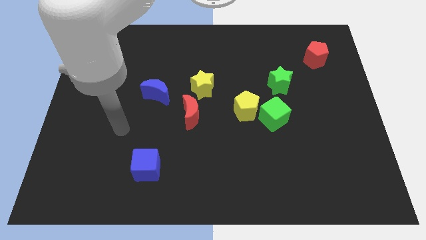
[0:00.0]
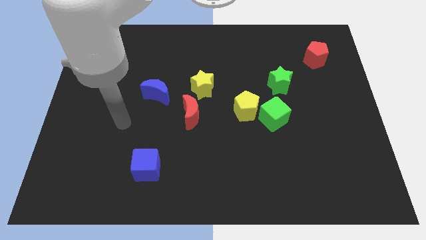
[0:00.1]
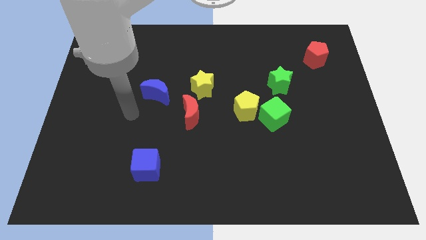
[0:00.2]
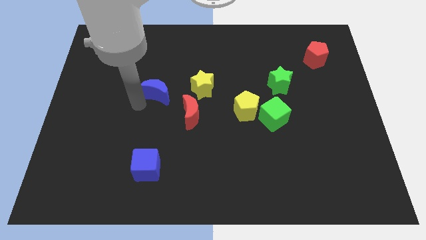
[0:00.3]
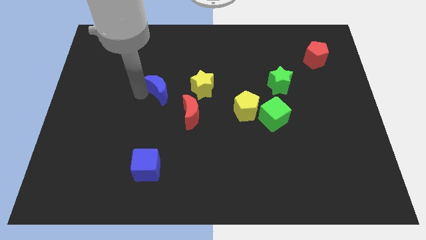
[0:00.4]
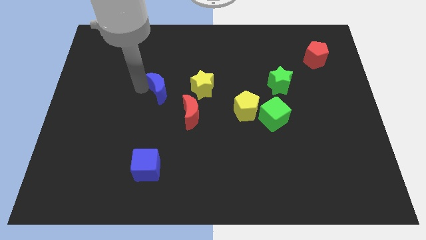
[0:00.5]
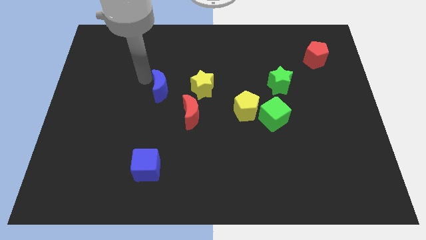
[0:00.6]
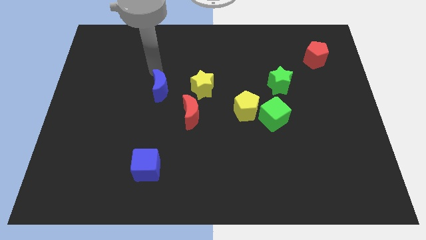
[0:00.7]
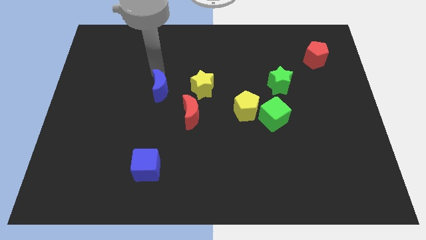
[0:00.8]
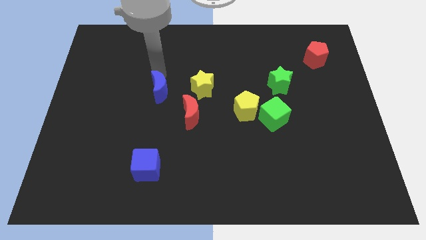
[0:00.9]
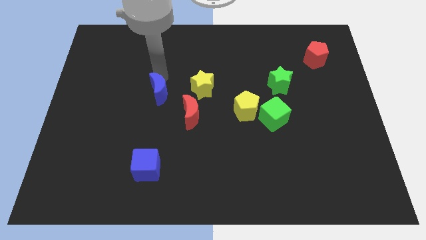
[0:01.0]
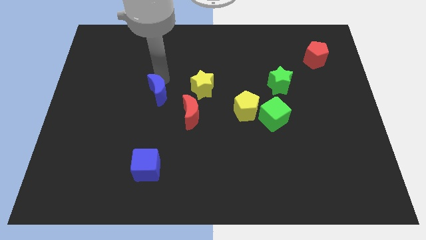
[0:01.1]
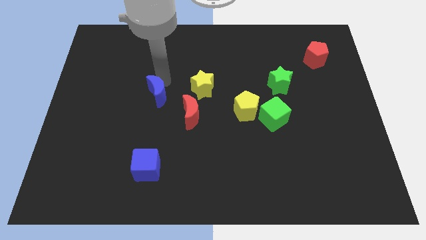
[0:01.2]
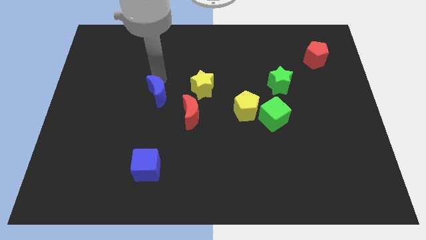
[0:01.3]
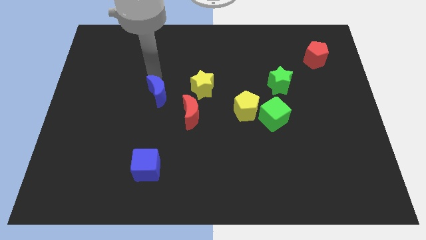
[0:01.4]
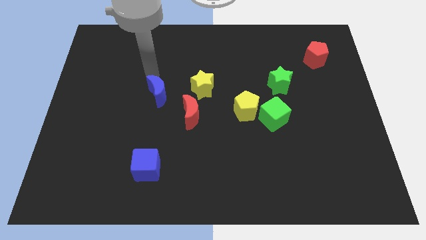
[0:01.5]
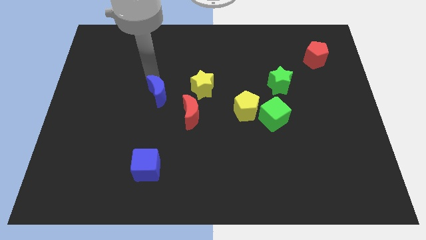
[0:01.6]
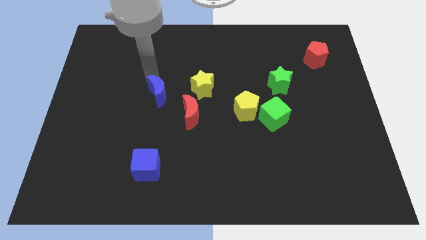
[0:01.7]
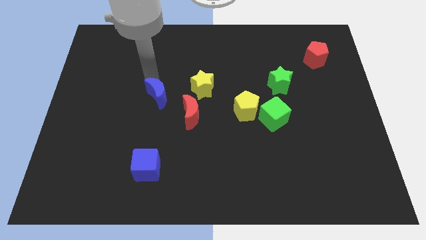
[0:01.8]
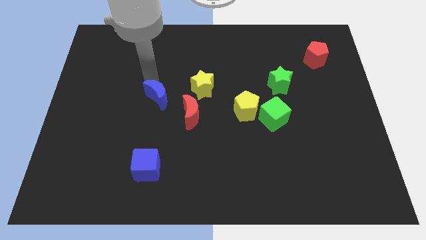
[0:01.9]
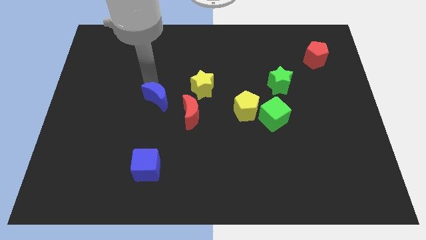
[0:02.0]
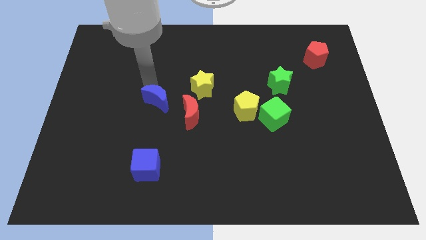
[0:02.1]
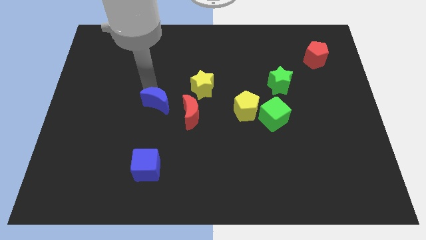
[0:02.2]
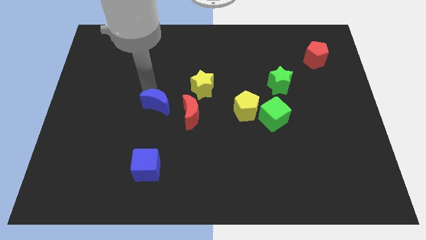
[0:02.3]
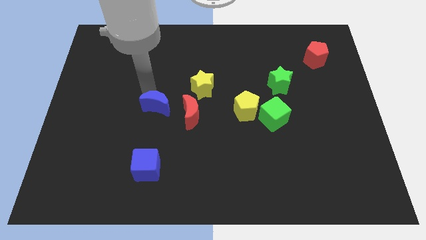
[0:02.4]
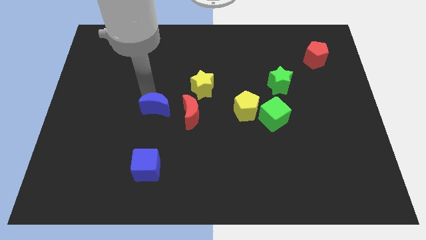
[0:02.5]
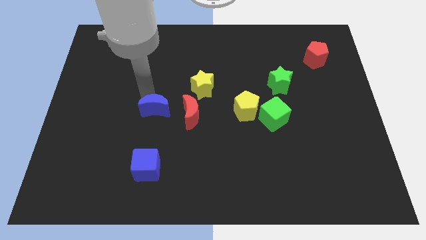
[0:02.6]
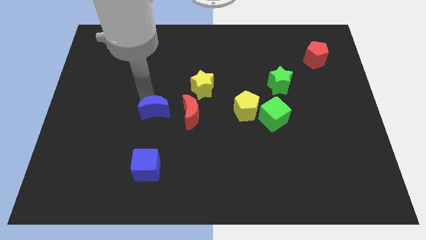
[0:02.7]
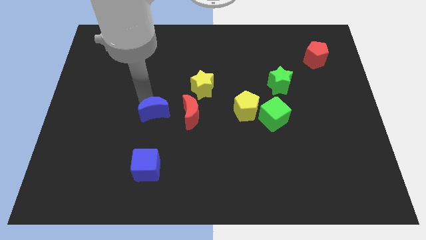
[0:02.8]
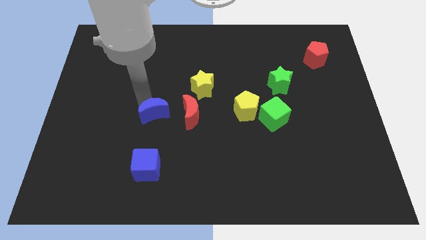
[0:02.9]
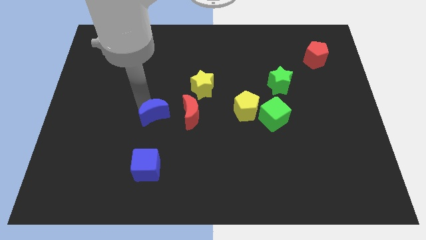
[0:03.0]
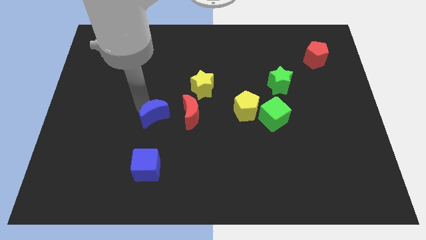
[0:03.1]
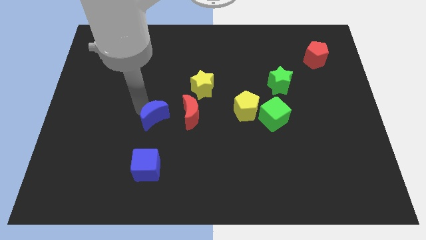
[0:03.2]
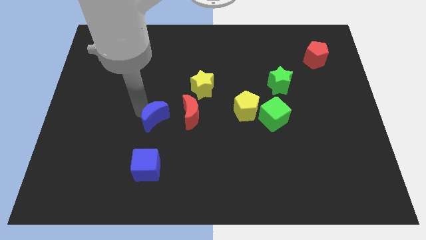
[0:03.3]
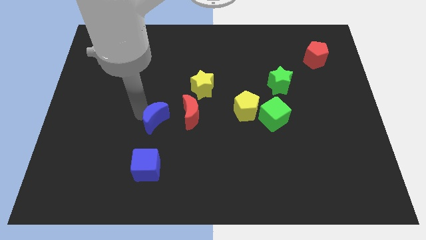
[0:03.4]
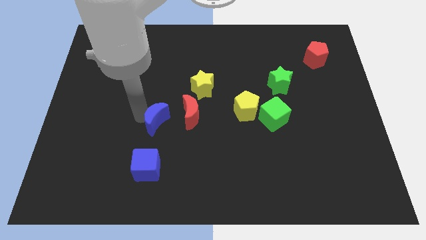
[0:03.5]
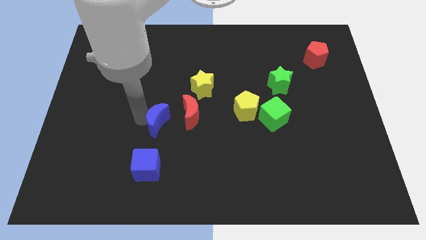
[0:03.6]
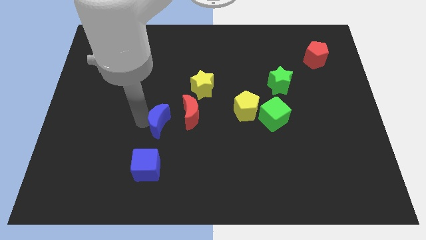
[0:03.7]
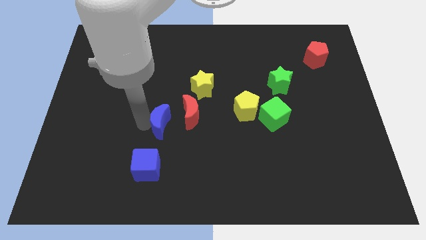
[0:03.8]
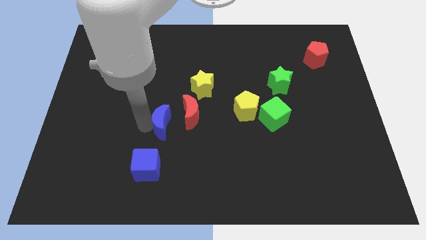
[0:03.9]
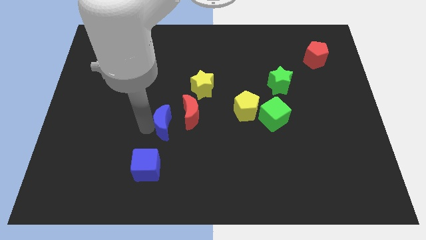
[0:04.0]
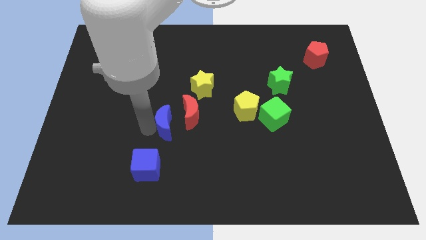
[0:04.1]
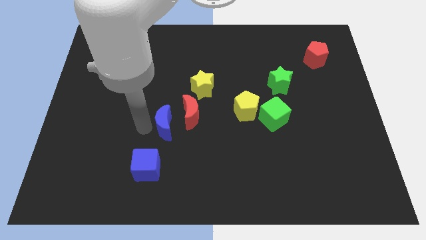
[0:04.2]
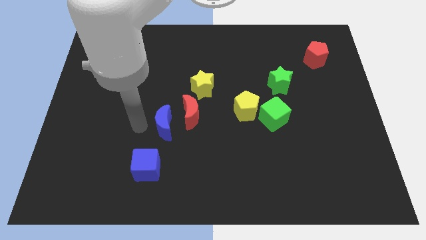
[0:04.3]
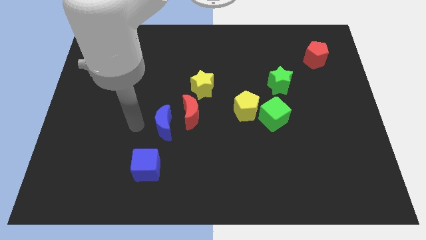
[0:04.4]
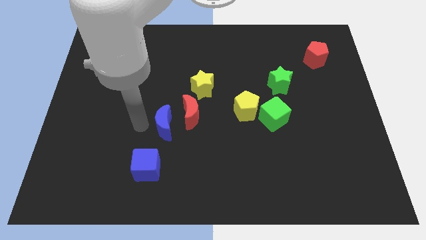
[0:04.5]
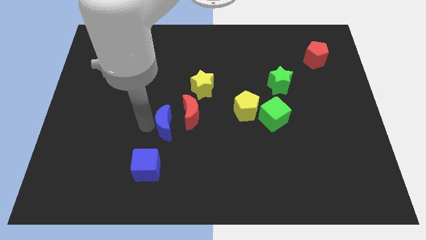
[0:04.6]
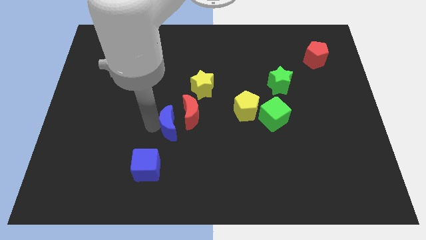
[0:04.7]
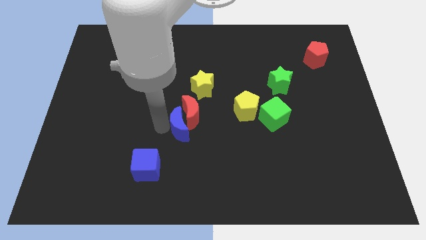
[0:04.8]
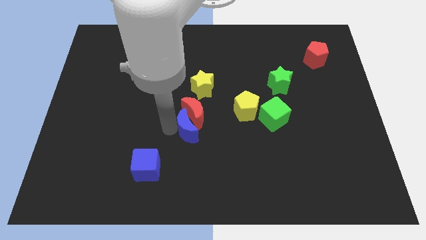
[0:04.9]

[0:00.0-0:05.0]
move the blue moon to the bottom side of the yellow star

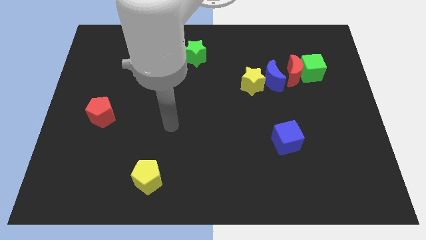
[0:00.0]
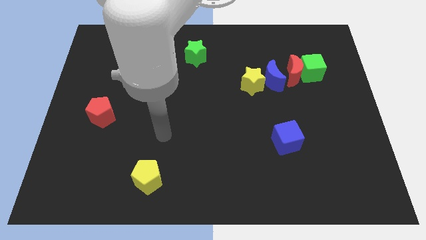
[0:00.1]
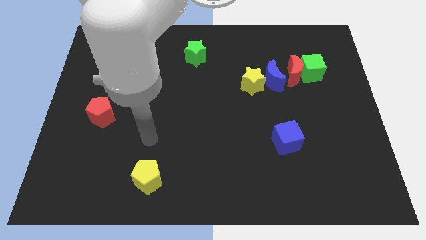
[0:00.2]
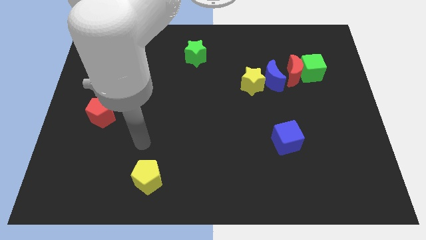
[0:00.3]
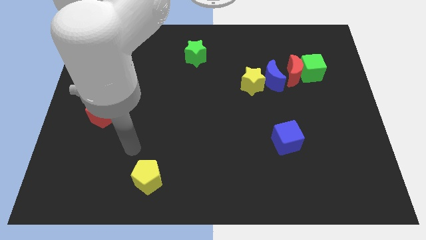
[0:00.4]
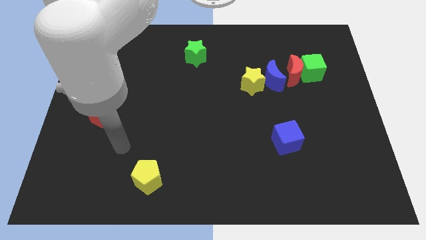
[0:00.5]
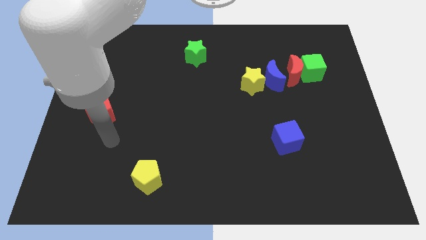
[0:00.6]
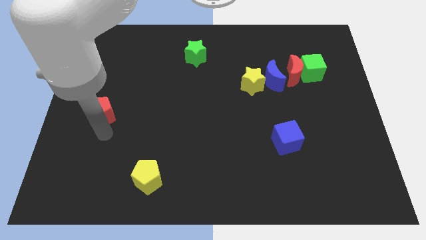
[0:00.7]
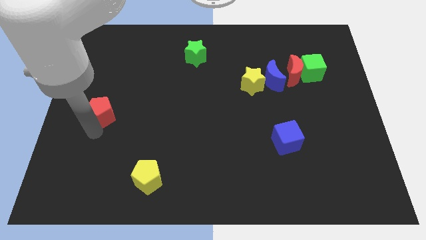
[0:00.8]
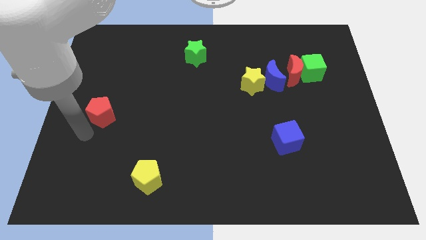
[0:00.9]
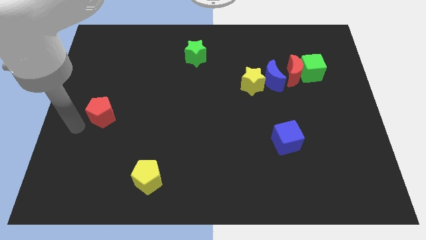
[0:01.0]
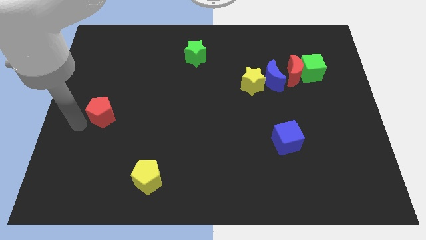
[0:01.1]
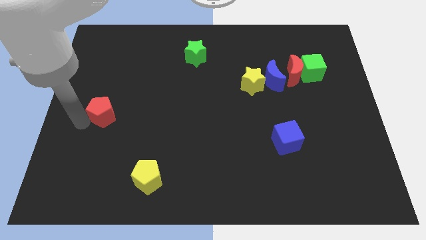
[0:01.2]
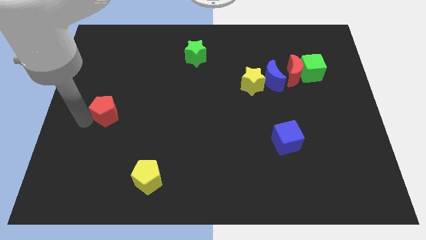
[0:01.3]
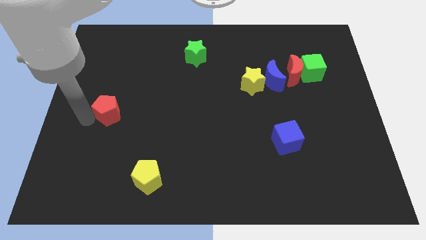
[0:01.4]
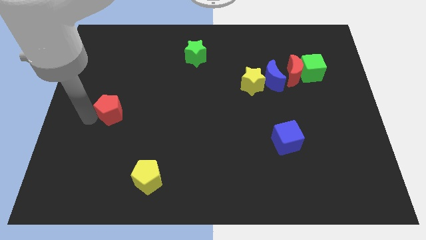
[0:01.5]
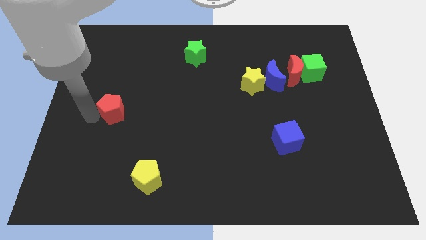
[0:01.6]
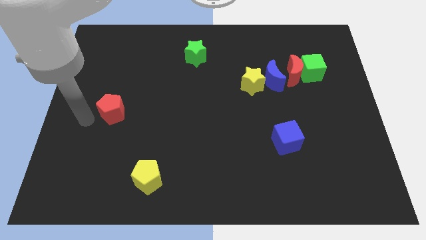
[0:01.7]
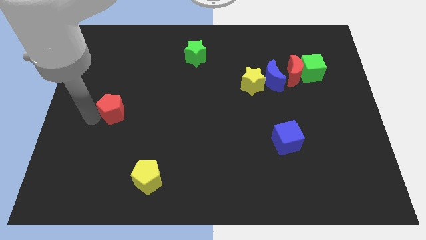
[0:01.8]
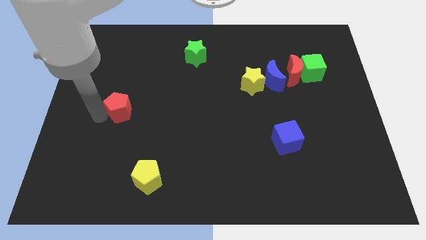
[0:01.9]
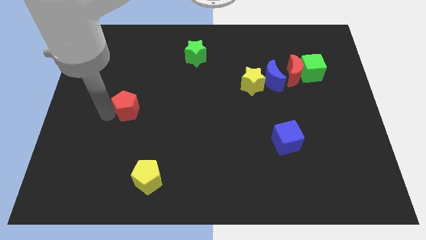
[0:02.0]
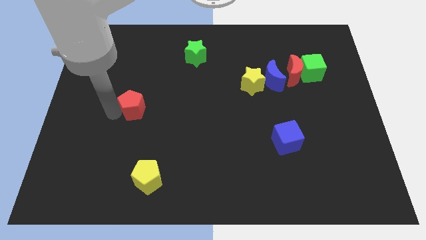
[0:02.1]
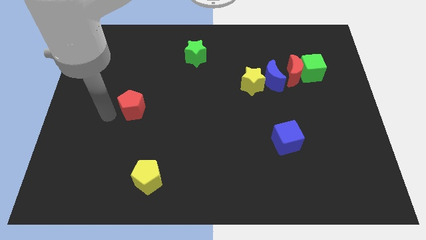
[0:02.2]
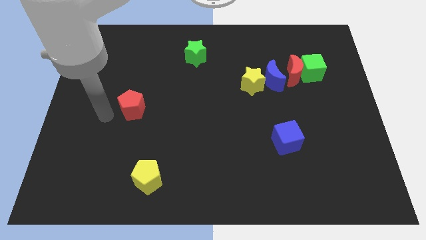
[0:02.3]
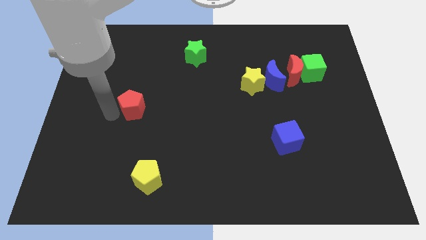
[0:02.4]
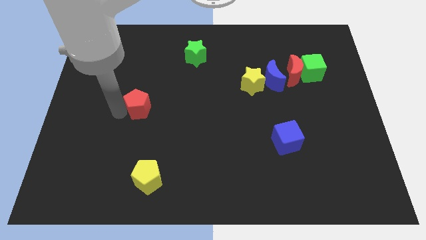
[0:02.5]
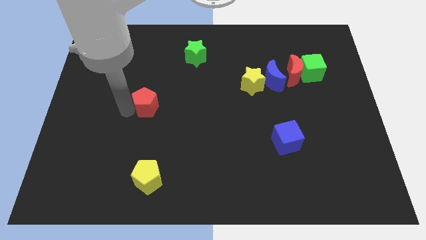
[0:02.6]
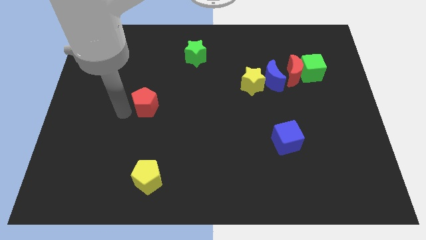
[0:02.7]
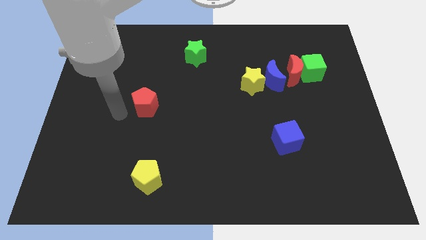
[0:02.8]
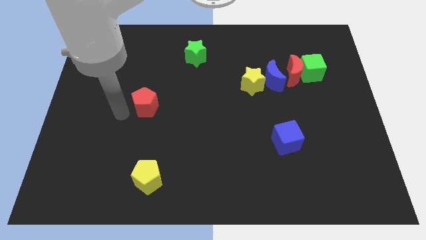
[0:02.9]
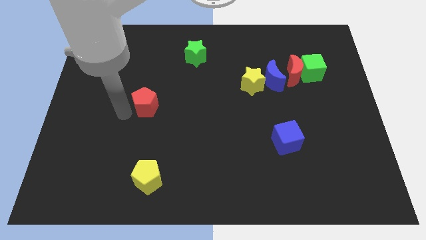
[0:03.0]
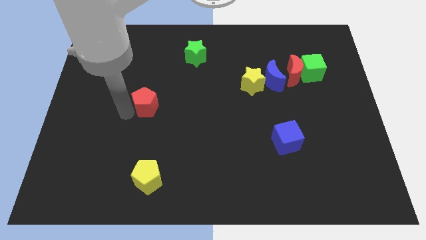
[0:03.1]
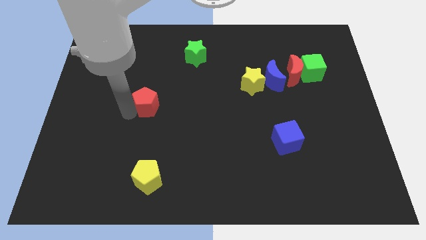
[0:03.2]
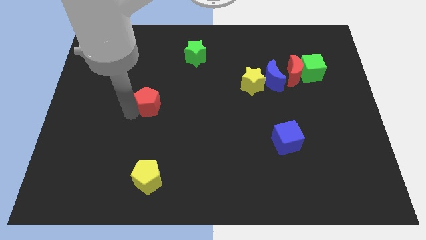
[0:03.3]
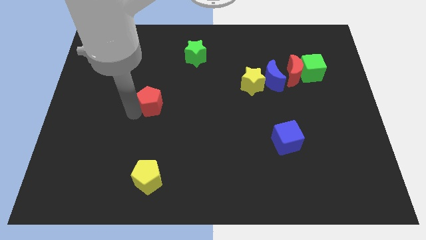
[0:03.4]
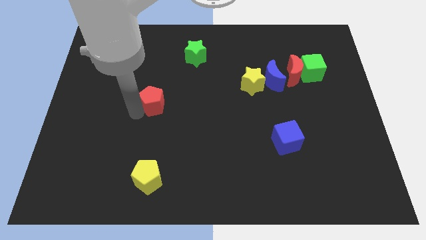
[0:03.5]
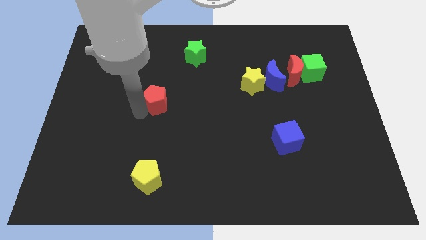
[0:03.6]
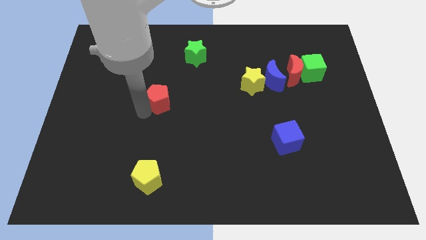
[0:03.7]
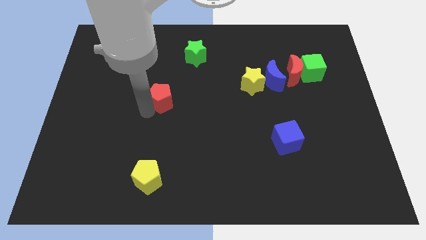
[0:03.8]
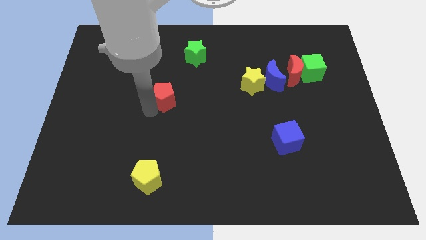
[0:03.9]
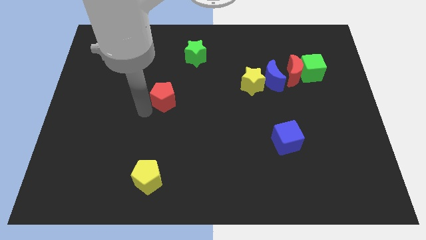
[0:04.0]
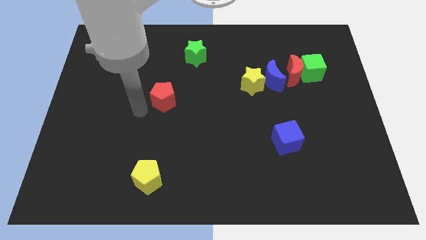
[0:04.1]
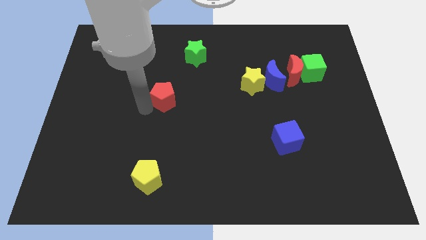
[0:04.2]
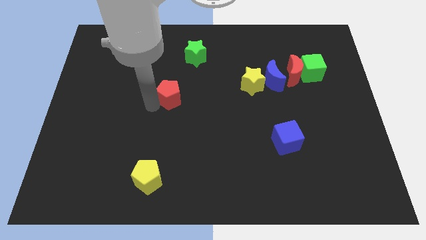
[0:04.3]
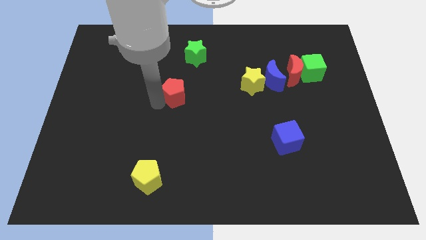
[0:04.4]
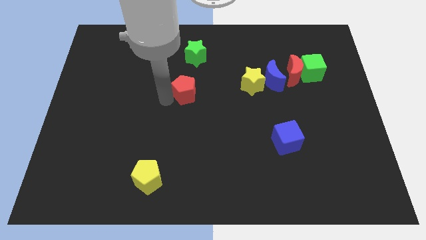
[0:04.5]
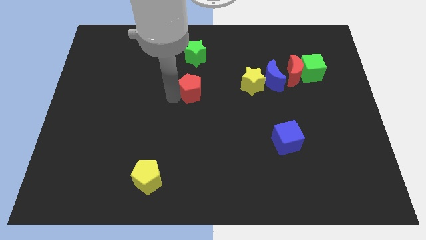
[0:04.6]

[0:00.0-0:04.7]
push the red pentagon just left of the yellow star
